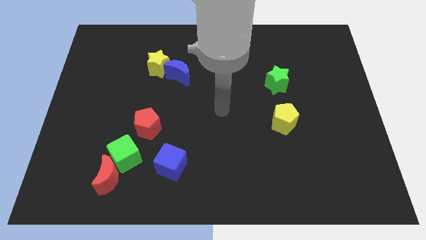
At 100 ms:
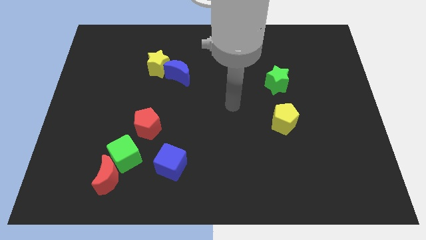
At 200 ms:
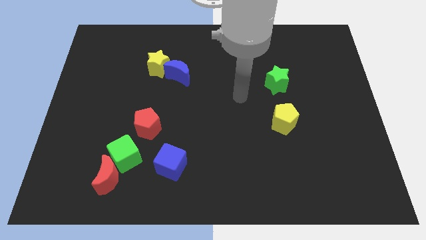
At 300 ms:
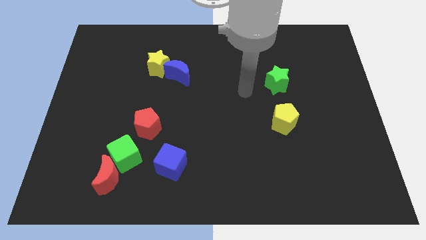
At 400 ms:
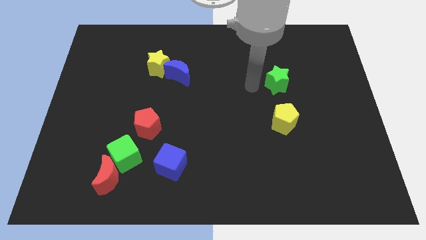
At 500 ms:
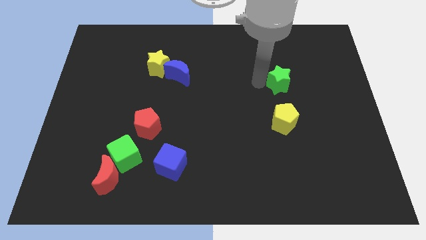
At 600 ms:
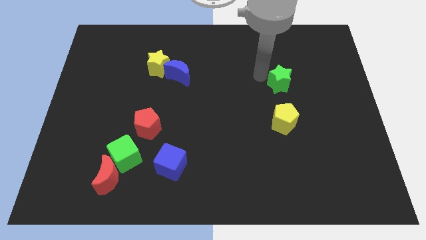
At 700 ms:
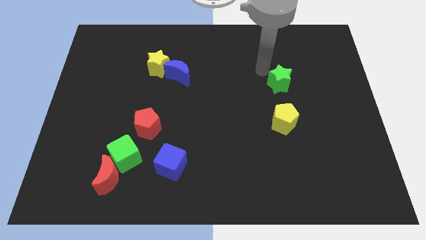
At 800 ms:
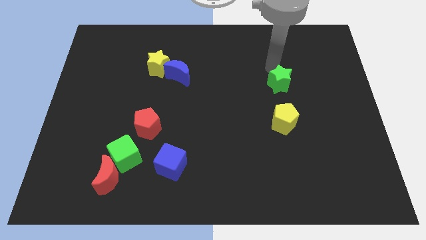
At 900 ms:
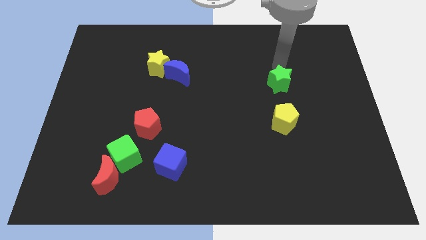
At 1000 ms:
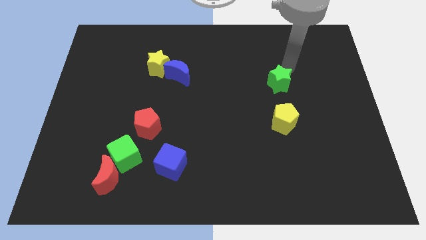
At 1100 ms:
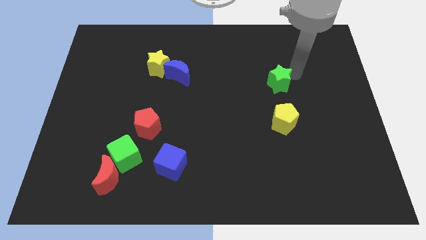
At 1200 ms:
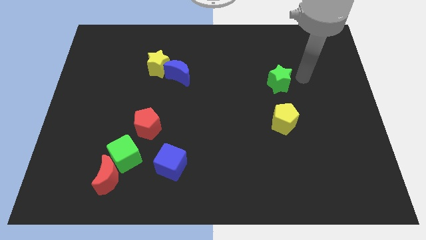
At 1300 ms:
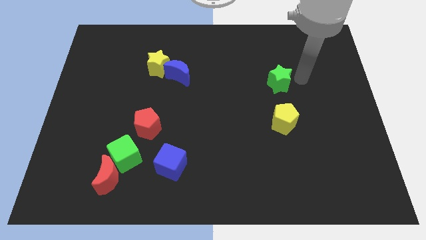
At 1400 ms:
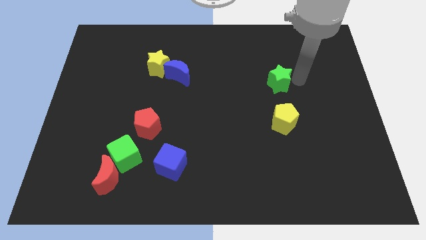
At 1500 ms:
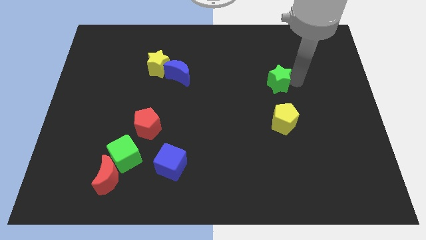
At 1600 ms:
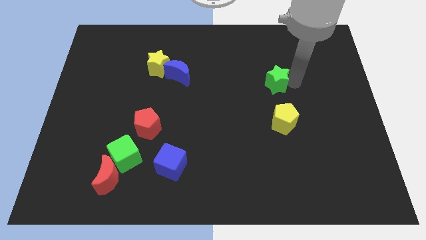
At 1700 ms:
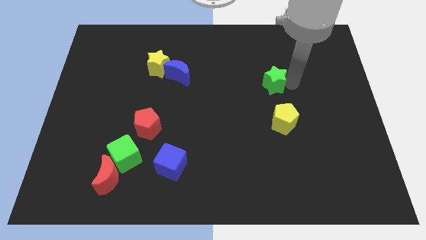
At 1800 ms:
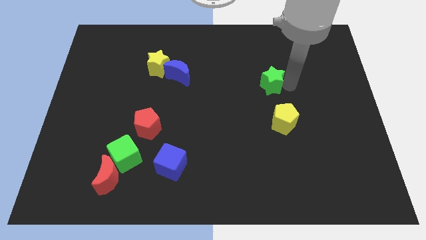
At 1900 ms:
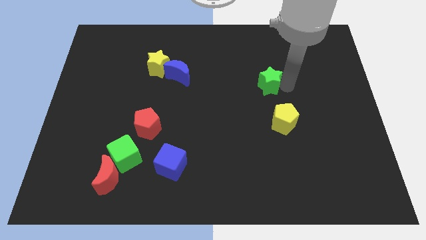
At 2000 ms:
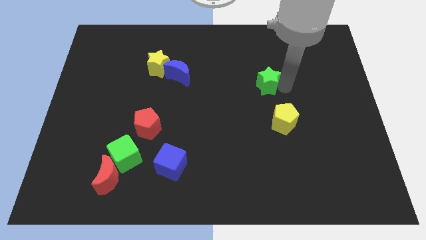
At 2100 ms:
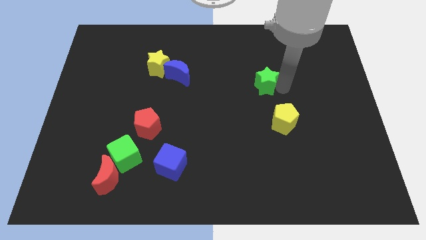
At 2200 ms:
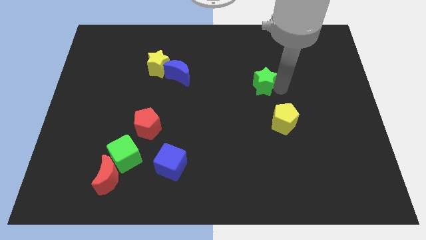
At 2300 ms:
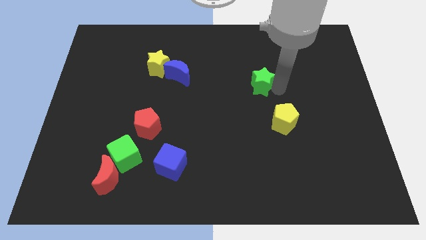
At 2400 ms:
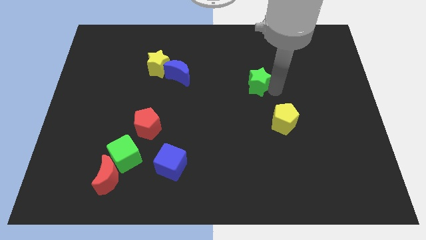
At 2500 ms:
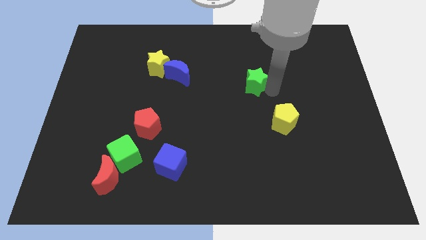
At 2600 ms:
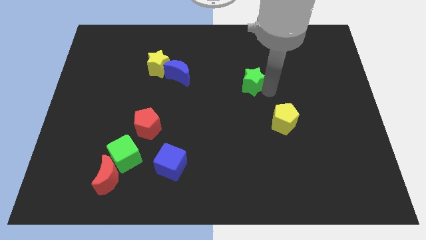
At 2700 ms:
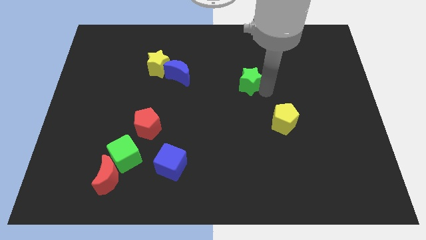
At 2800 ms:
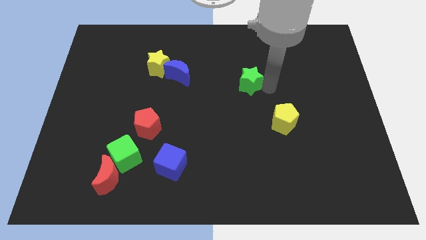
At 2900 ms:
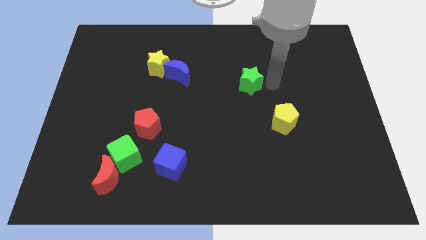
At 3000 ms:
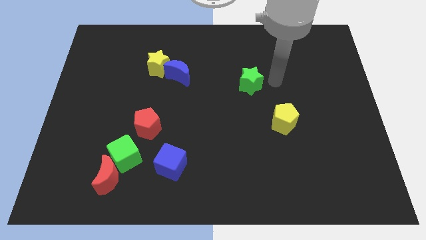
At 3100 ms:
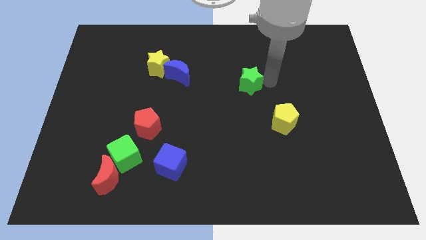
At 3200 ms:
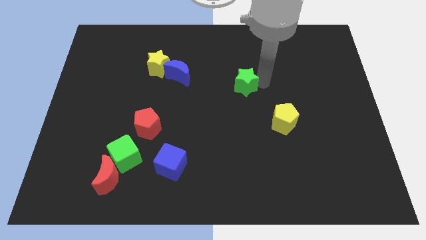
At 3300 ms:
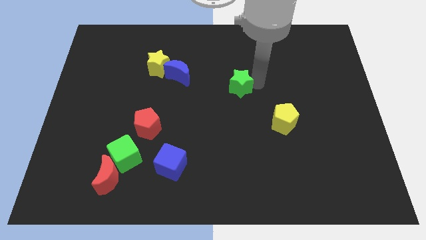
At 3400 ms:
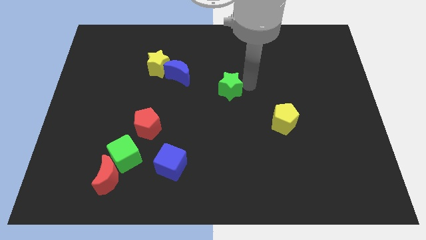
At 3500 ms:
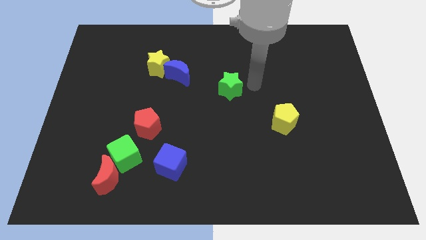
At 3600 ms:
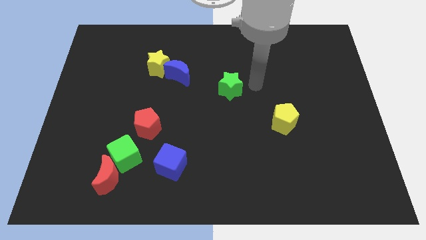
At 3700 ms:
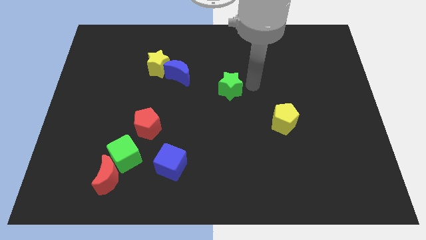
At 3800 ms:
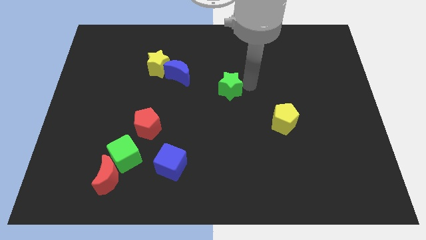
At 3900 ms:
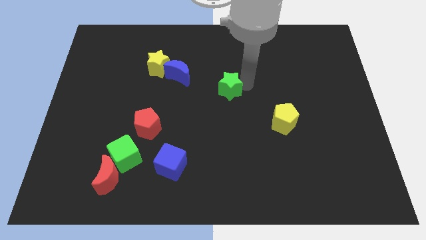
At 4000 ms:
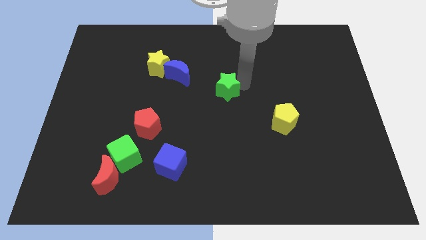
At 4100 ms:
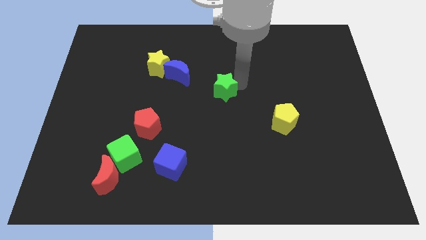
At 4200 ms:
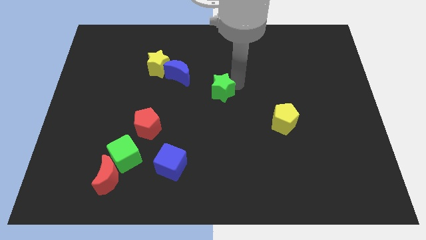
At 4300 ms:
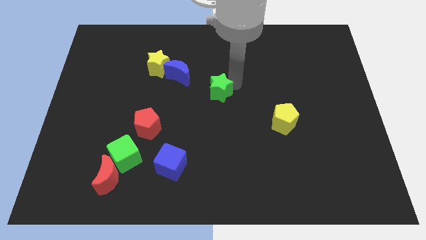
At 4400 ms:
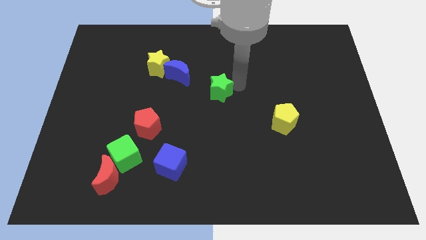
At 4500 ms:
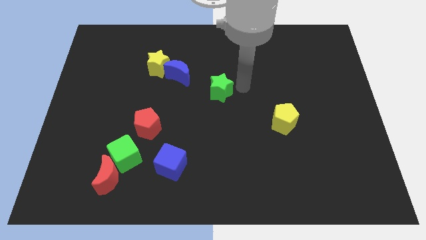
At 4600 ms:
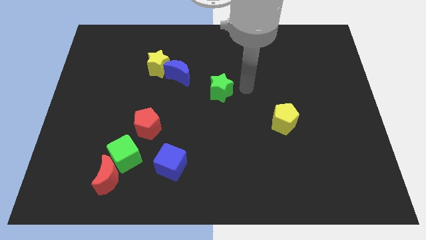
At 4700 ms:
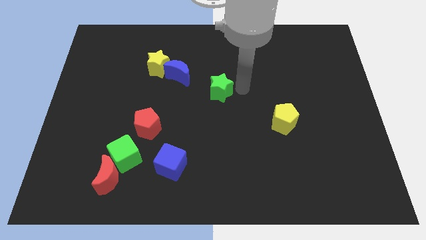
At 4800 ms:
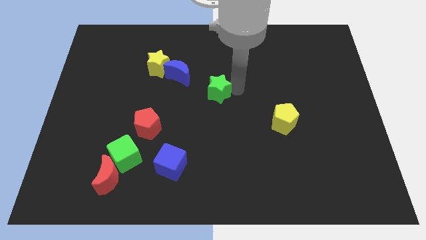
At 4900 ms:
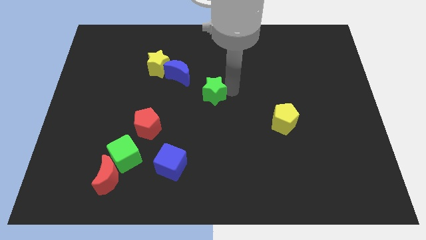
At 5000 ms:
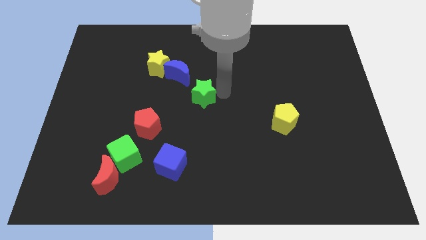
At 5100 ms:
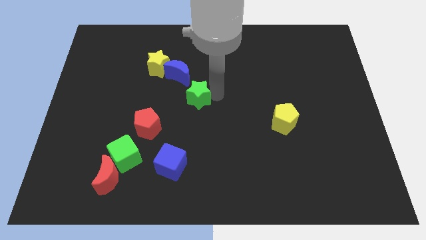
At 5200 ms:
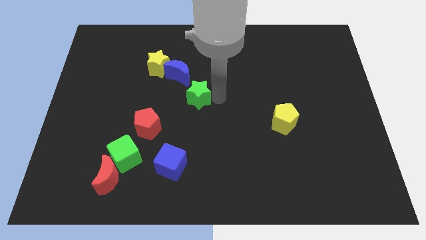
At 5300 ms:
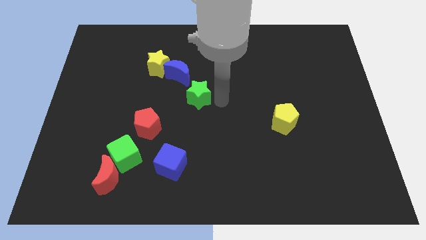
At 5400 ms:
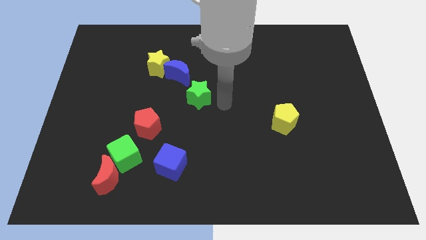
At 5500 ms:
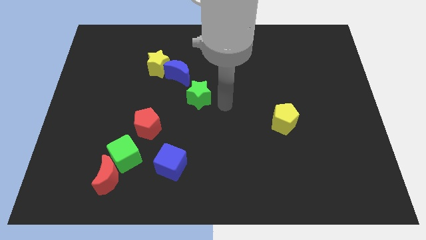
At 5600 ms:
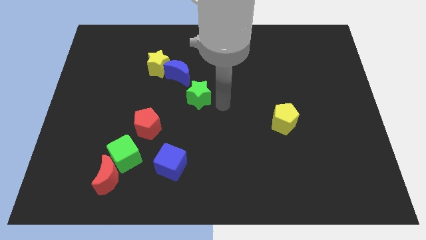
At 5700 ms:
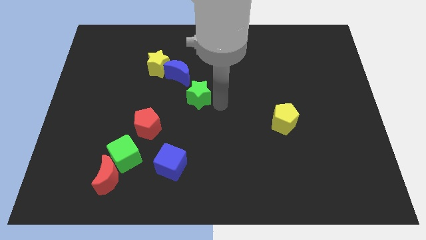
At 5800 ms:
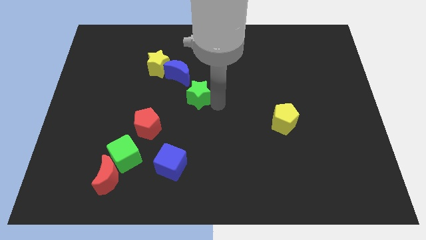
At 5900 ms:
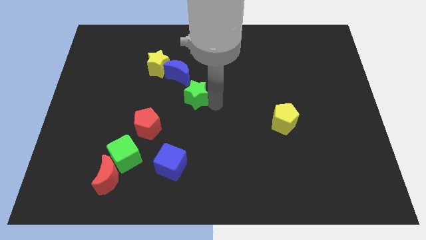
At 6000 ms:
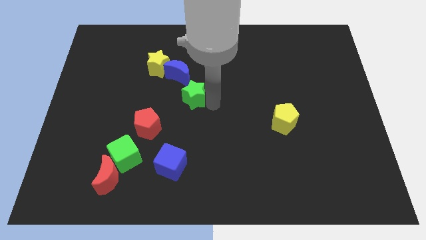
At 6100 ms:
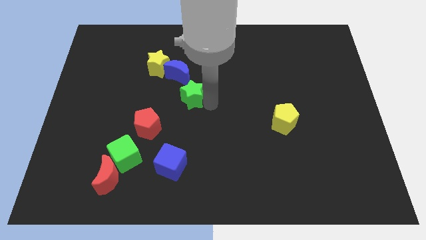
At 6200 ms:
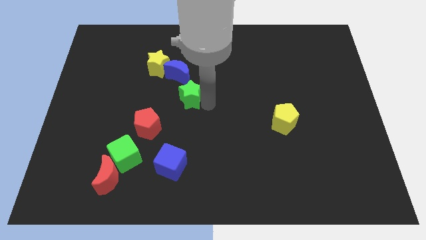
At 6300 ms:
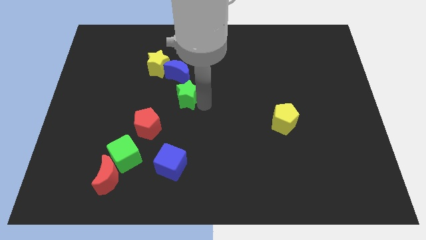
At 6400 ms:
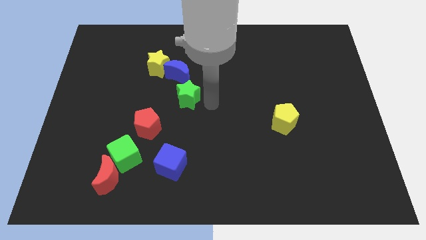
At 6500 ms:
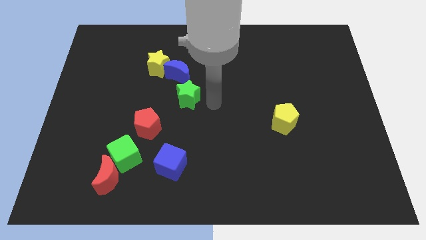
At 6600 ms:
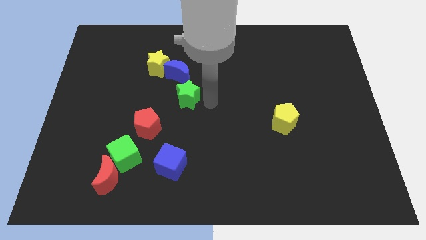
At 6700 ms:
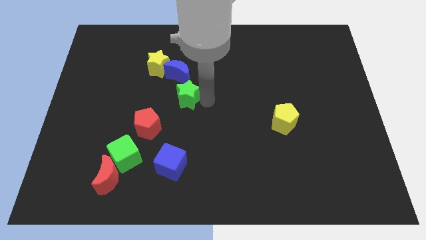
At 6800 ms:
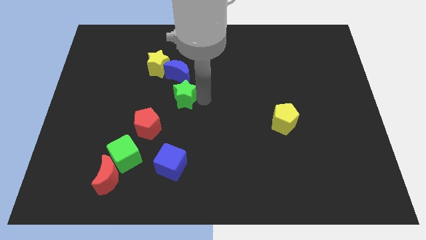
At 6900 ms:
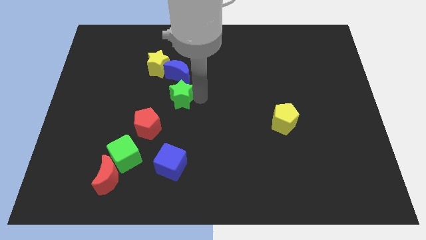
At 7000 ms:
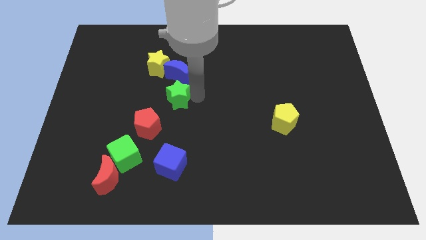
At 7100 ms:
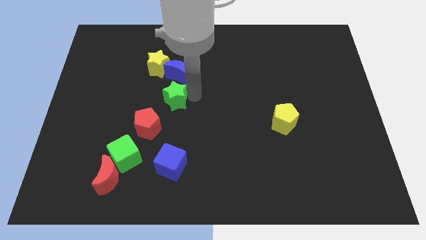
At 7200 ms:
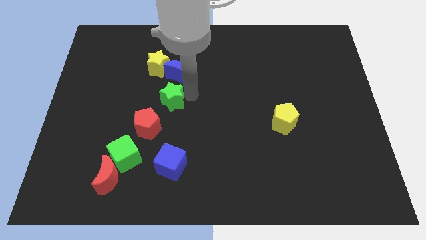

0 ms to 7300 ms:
push the green star to the top of the red pentagon

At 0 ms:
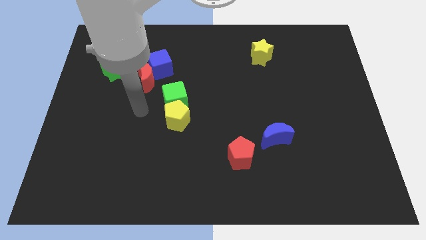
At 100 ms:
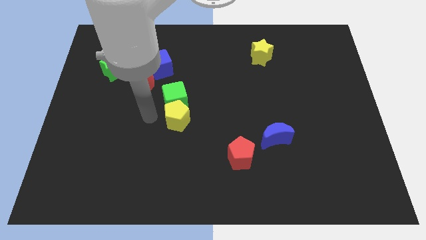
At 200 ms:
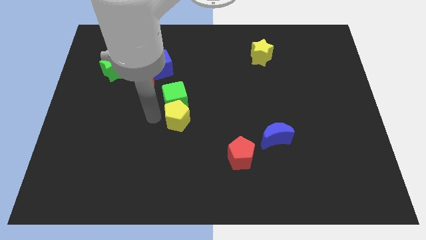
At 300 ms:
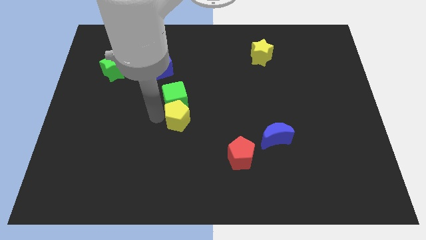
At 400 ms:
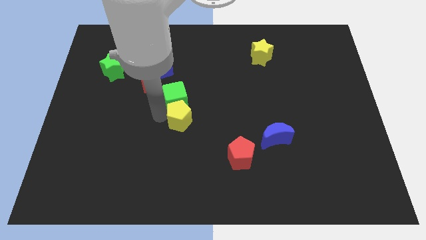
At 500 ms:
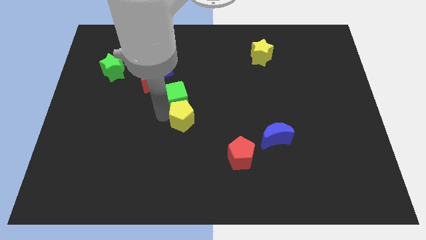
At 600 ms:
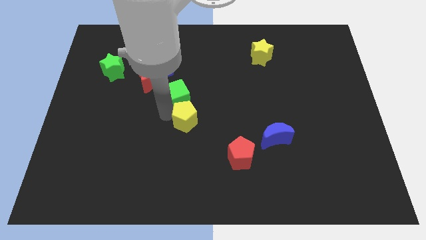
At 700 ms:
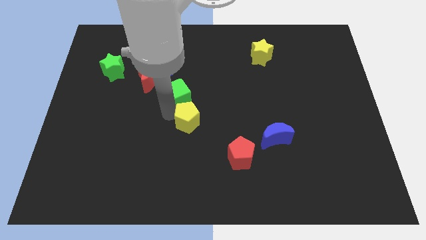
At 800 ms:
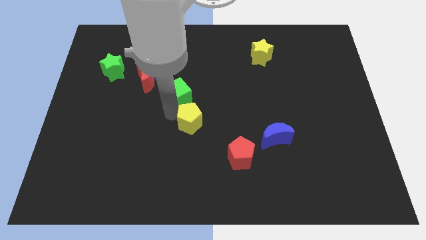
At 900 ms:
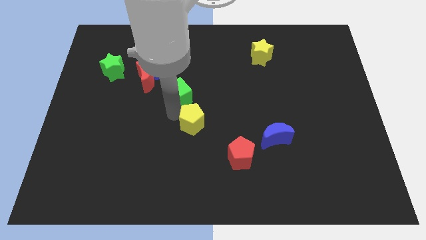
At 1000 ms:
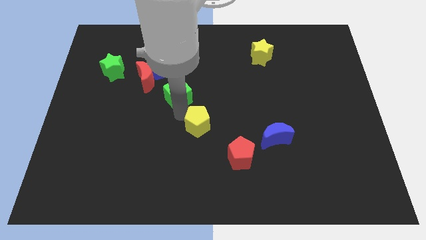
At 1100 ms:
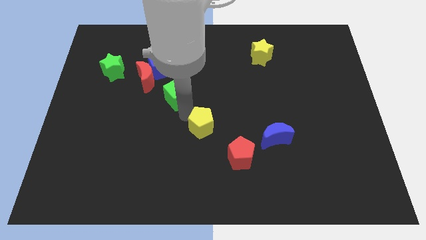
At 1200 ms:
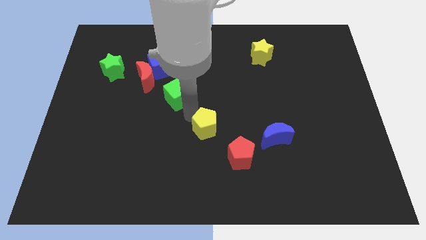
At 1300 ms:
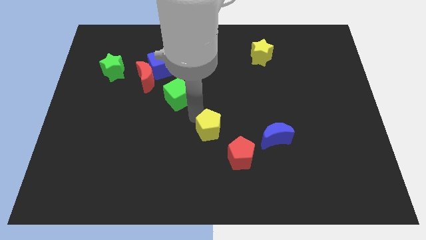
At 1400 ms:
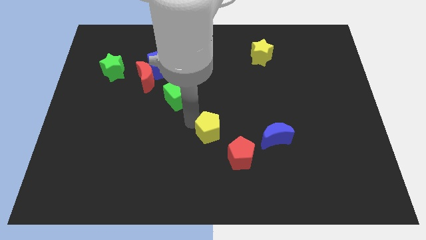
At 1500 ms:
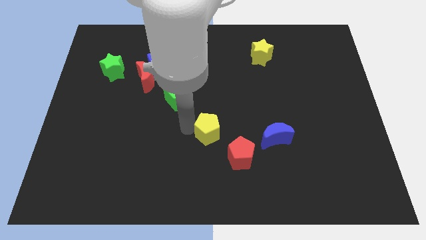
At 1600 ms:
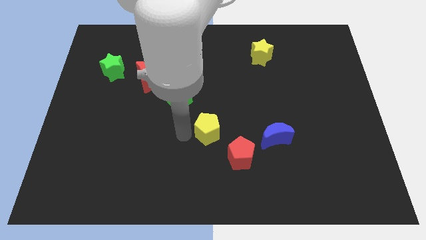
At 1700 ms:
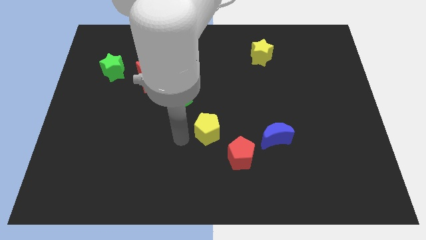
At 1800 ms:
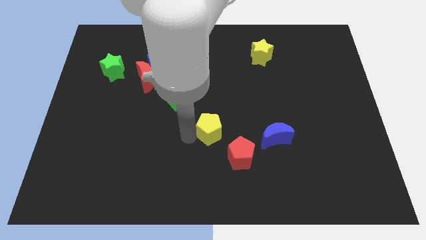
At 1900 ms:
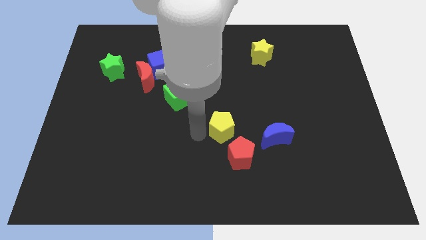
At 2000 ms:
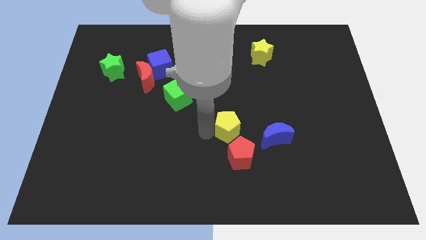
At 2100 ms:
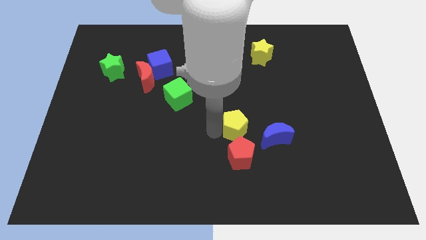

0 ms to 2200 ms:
put the yellow pentagon to the top left of the blue moon
